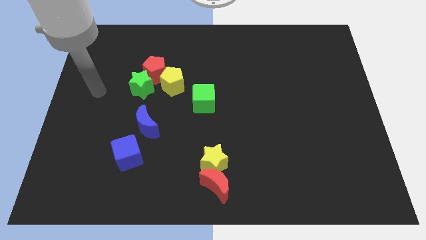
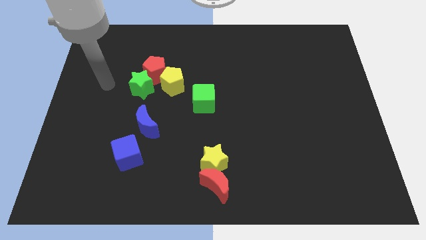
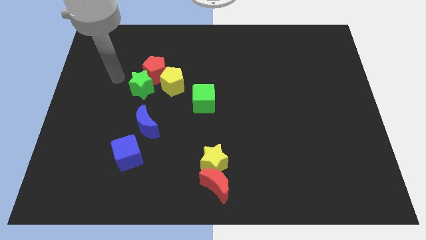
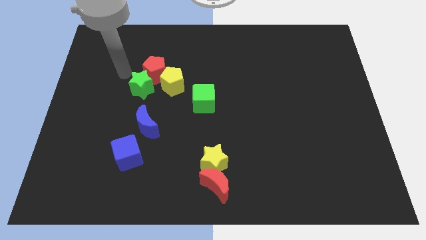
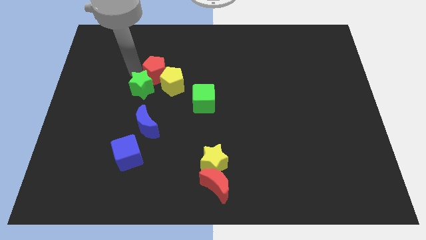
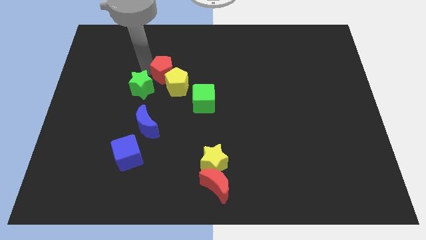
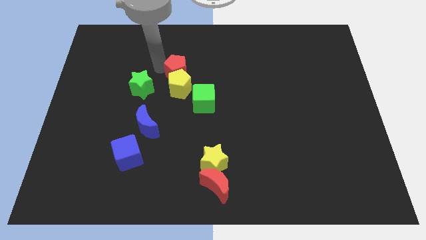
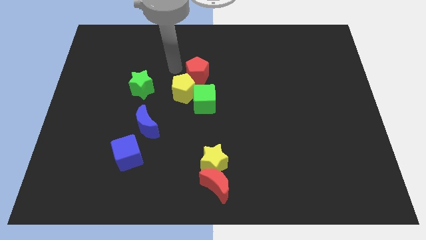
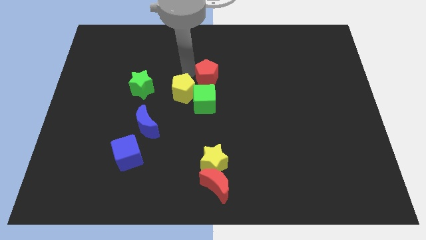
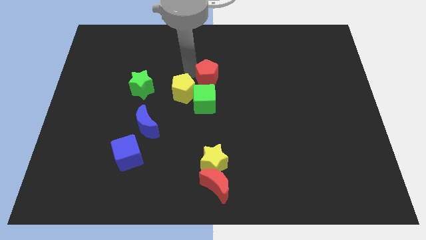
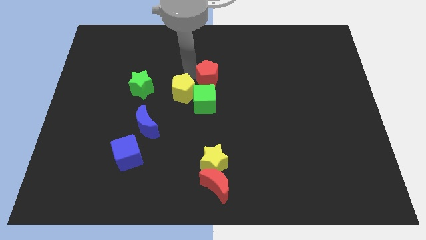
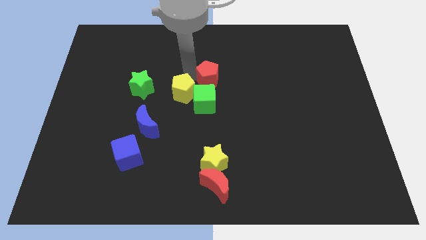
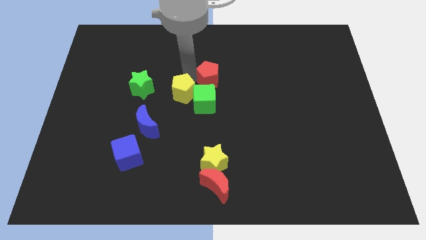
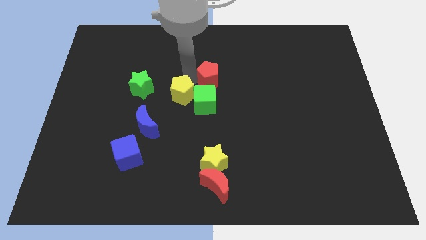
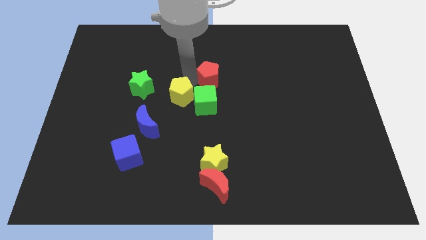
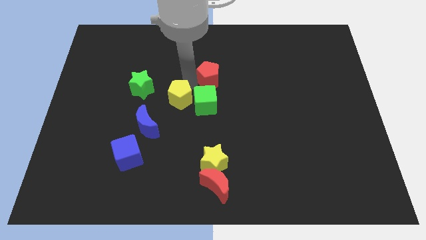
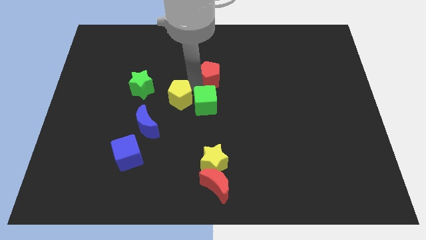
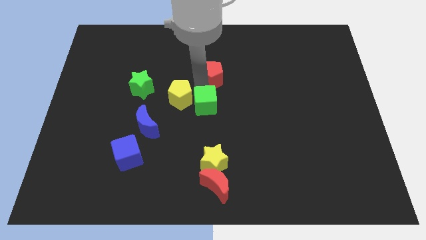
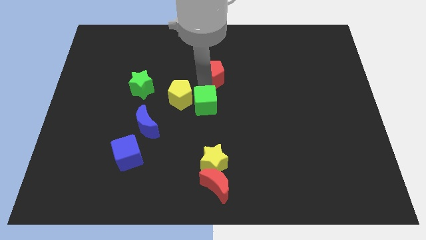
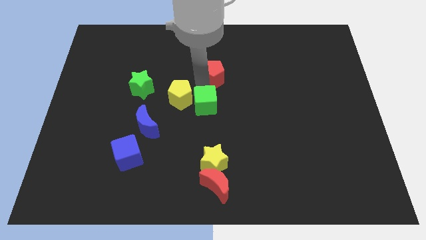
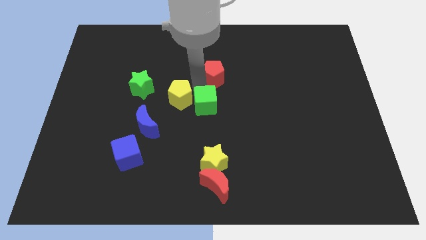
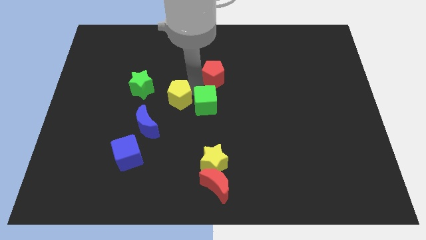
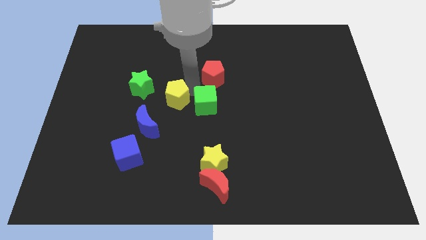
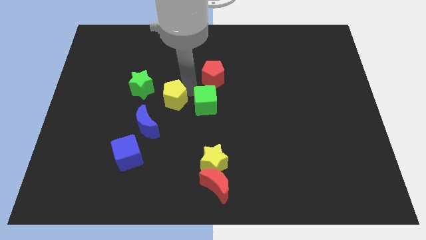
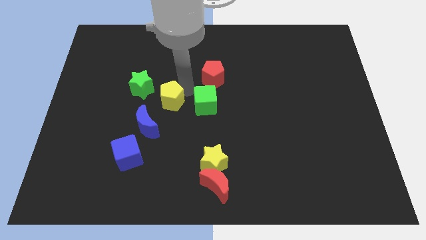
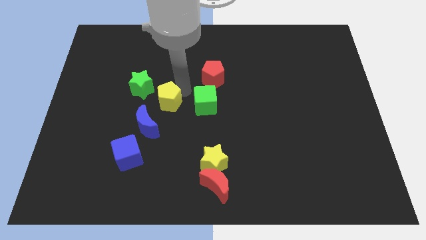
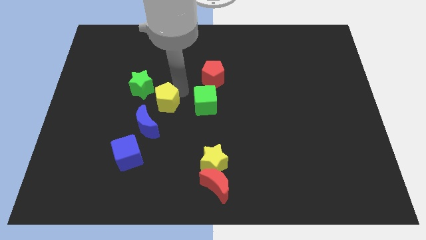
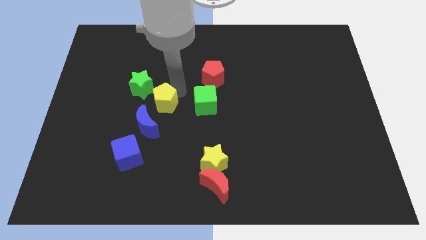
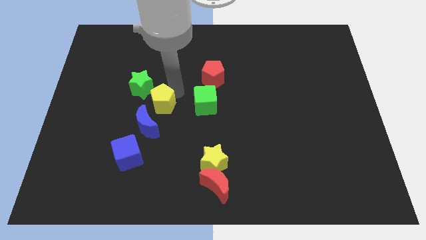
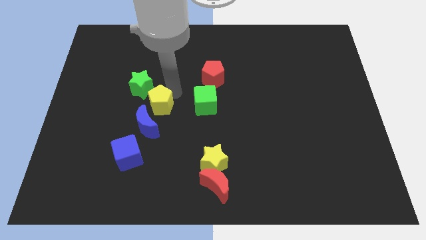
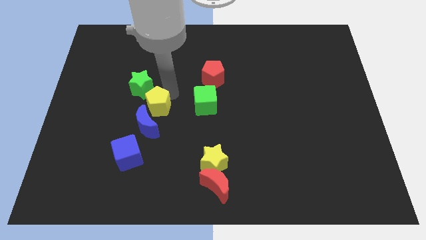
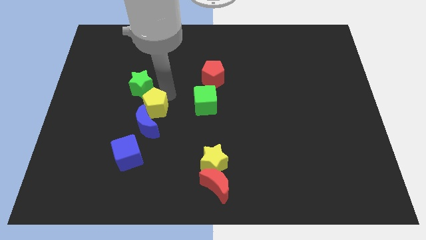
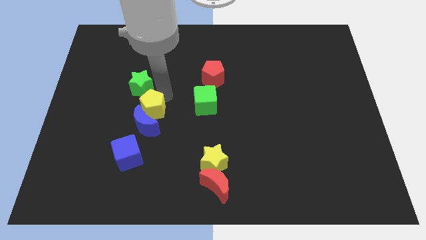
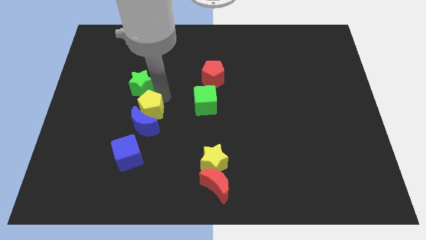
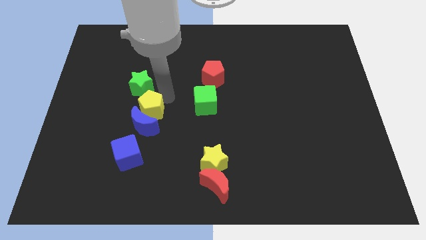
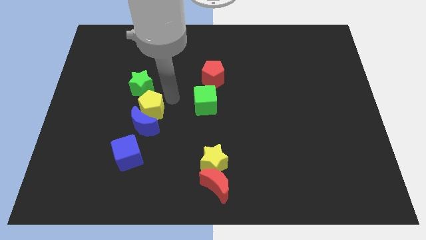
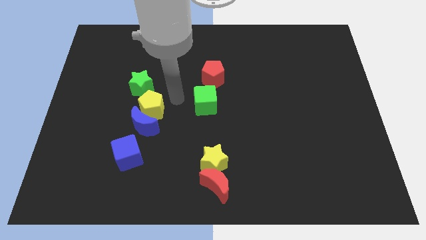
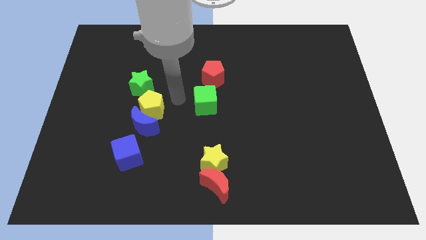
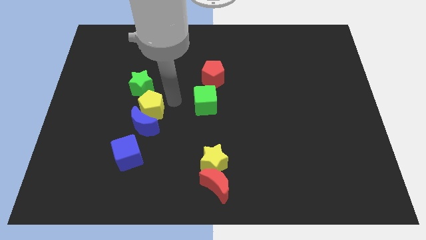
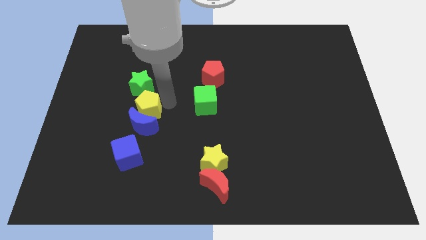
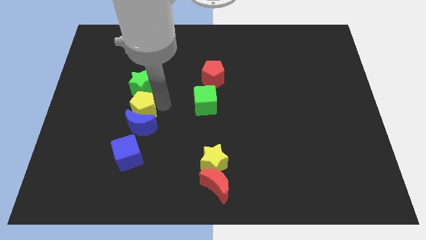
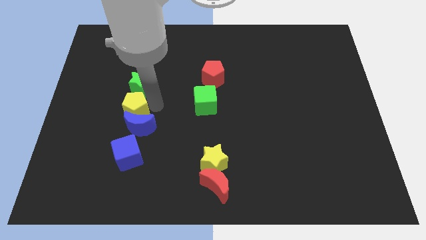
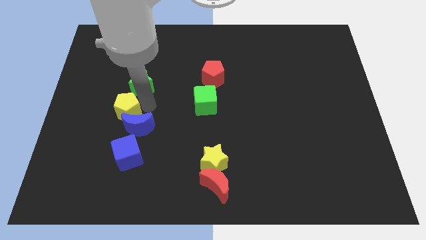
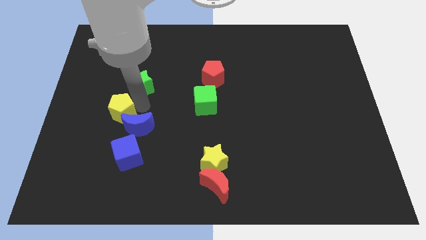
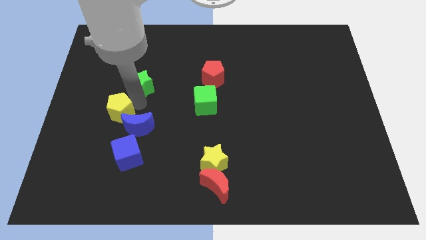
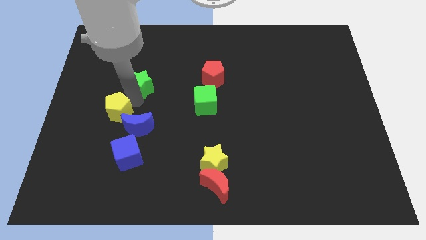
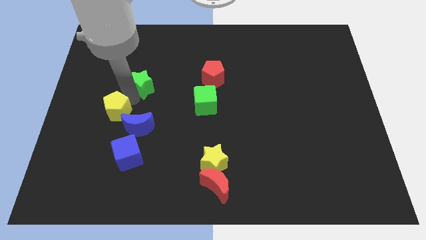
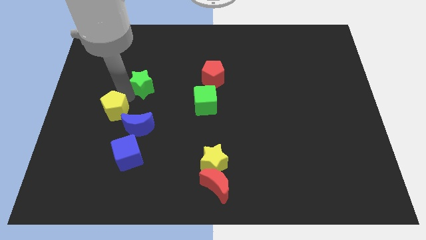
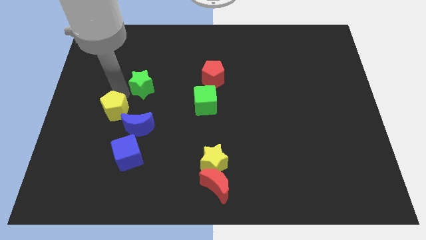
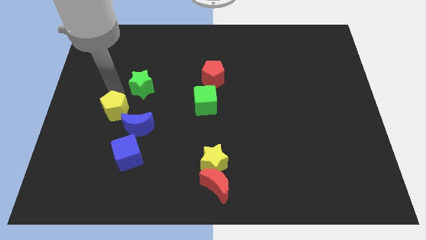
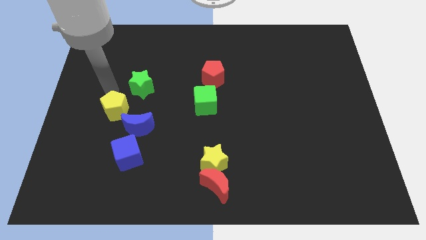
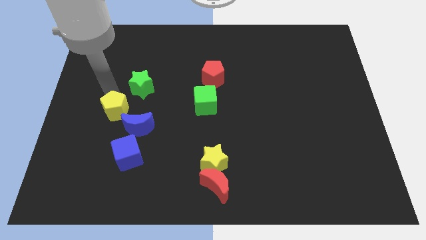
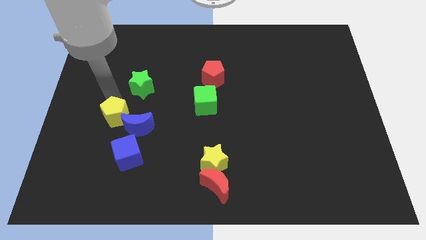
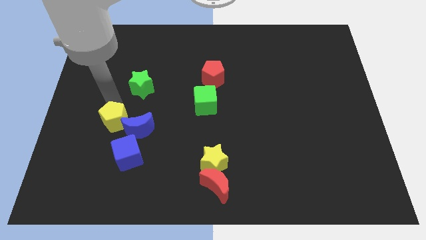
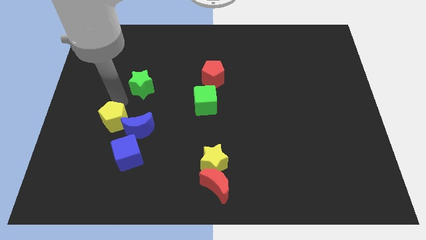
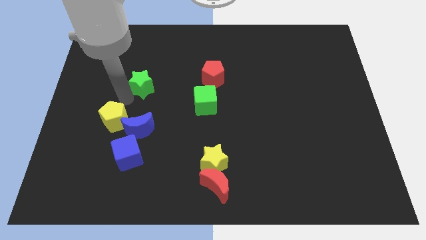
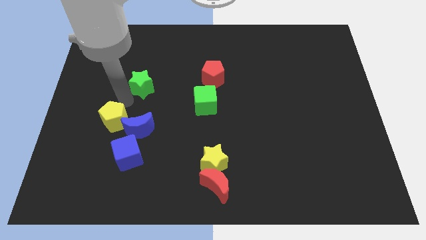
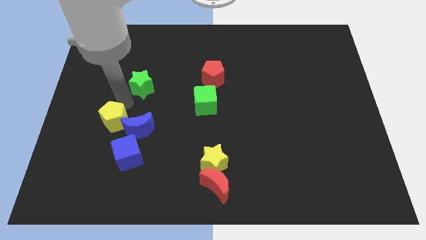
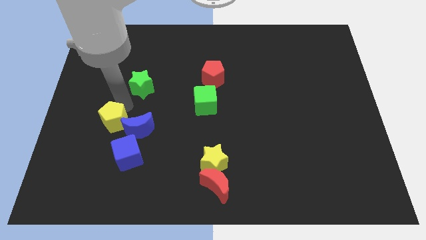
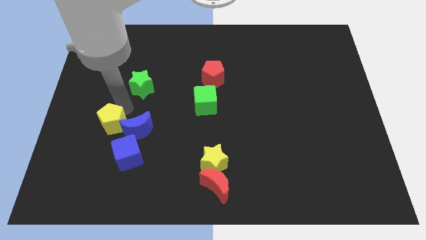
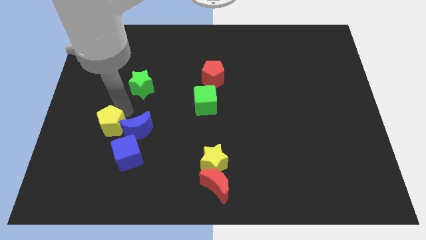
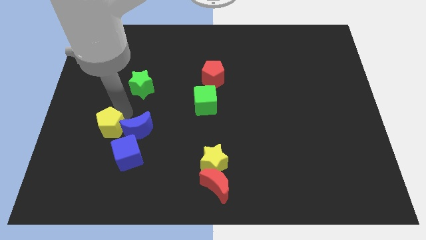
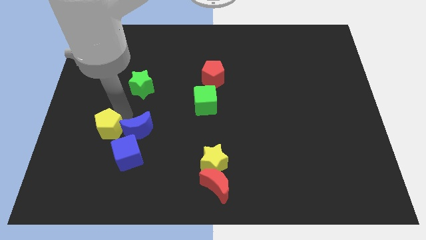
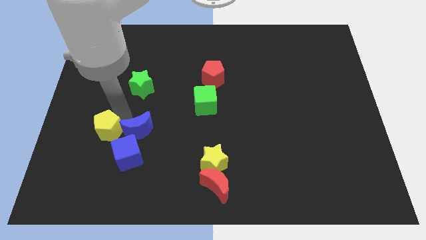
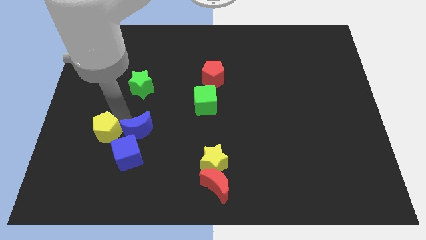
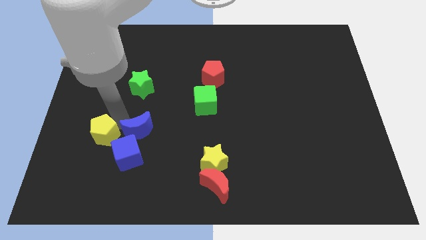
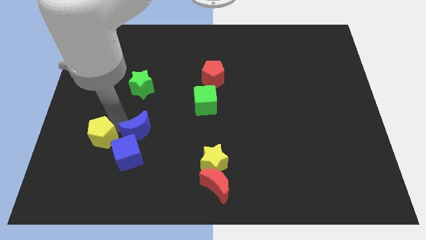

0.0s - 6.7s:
push the yellow pentagon to the left of the blue cube

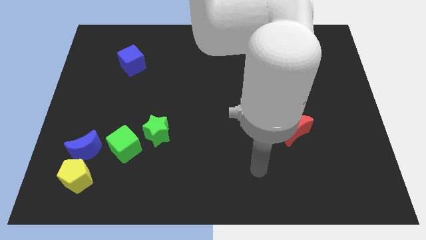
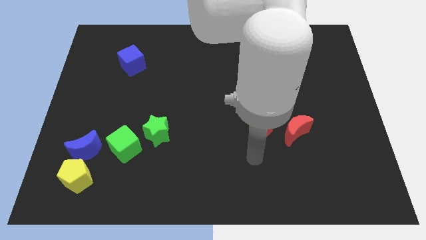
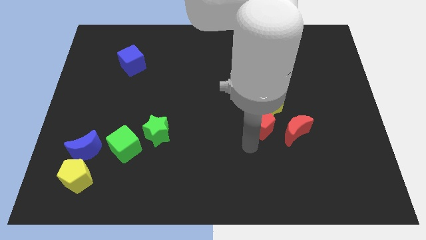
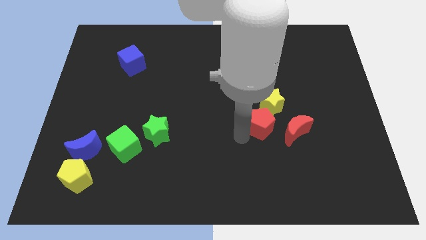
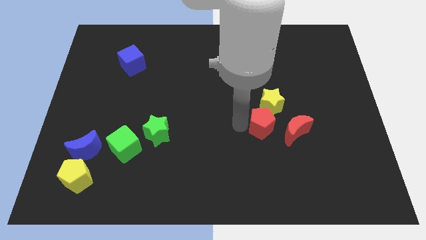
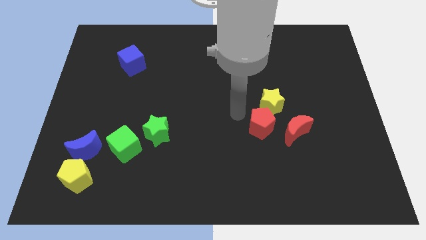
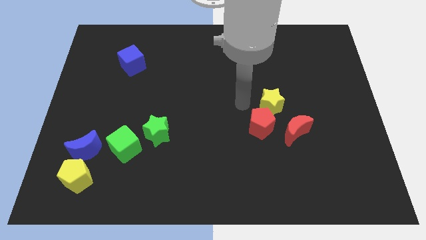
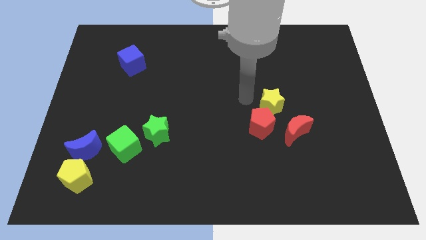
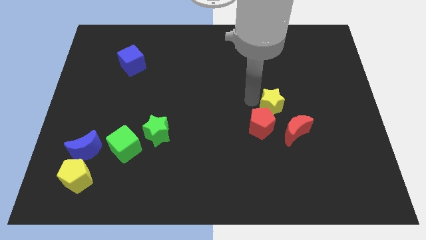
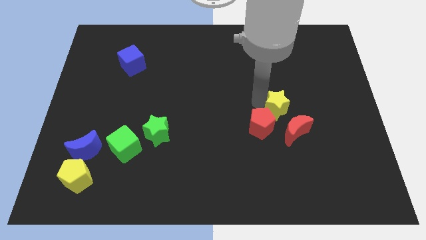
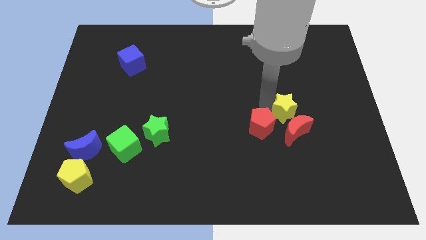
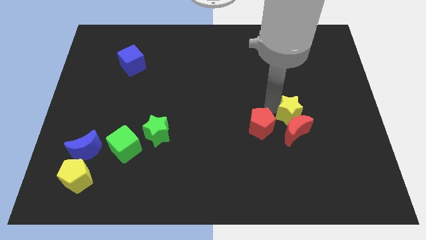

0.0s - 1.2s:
put the yellow star diagonally up and to the right of the red moon

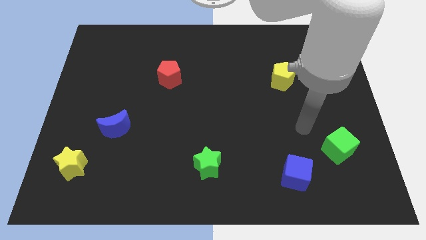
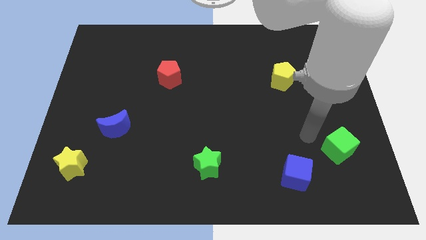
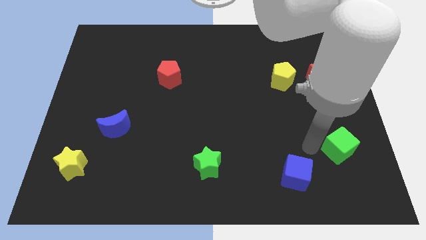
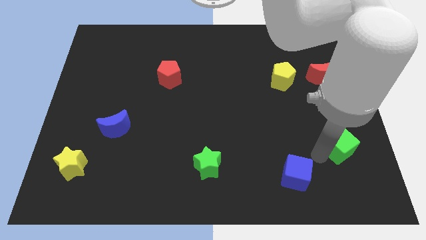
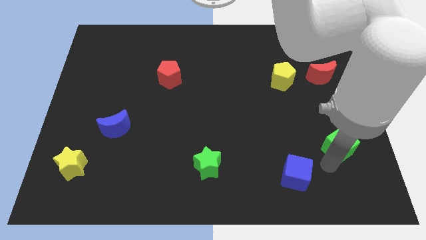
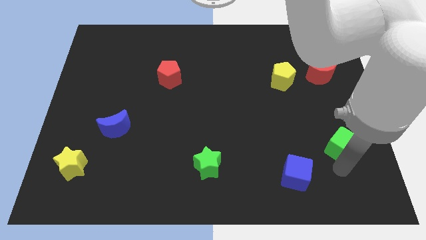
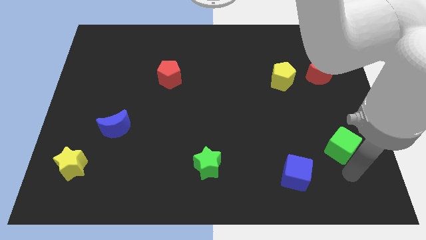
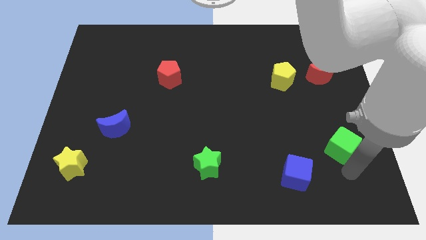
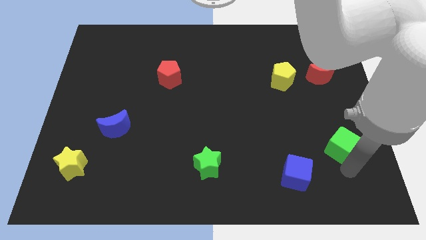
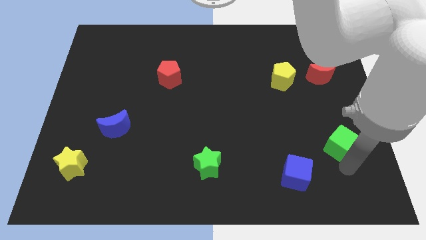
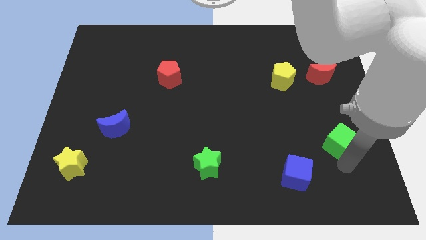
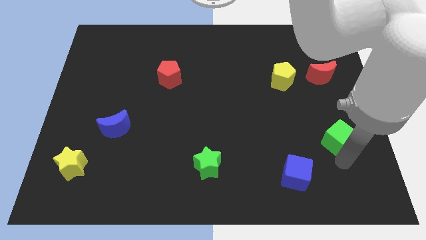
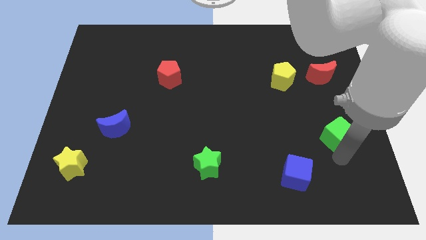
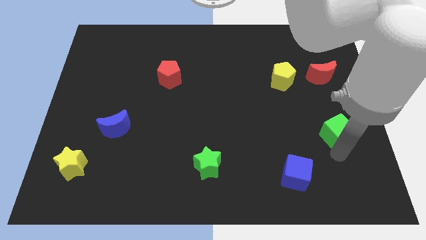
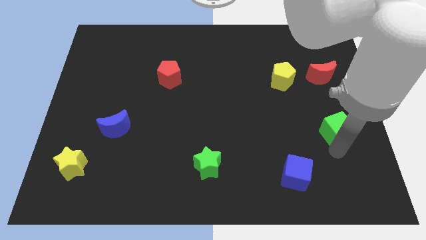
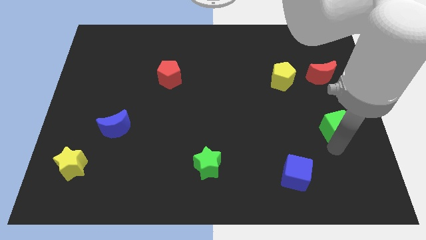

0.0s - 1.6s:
slide the green cube to the bottom side of the red moon
